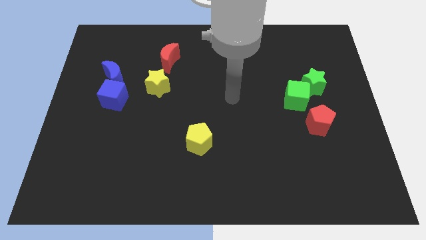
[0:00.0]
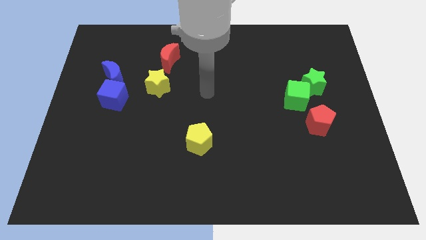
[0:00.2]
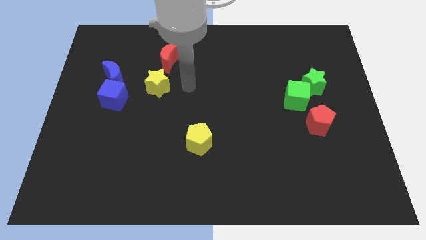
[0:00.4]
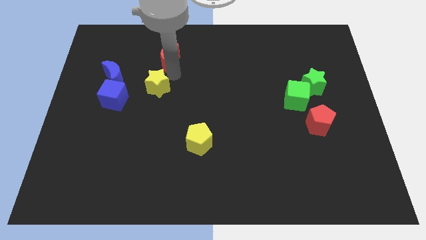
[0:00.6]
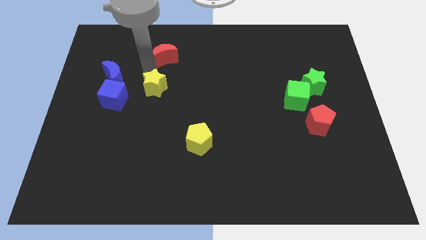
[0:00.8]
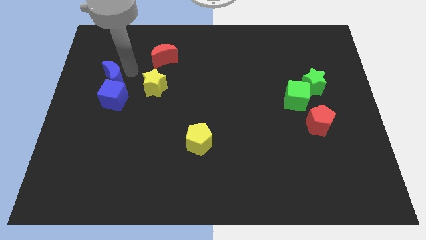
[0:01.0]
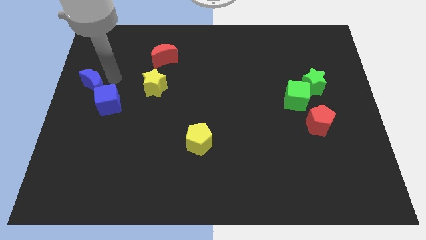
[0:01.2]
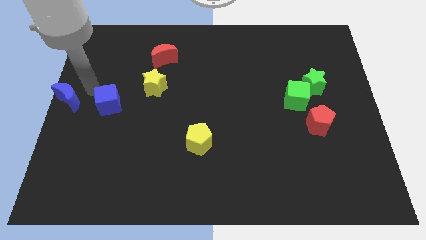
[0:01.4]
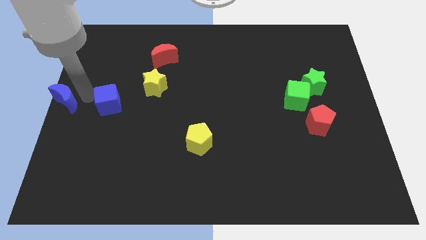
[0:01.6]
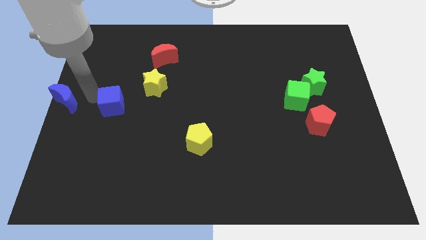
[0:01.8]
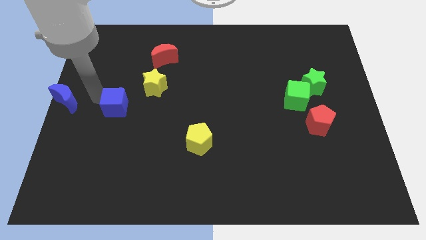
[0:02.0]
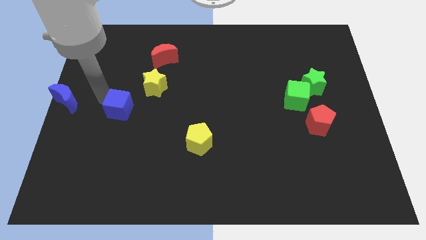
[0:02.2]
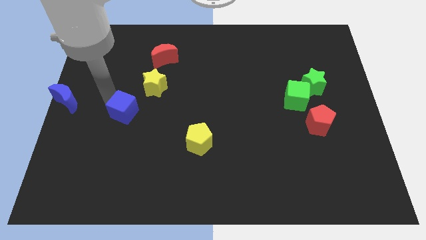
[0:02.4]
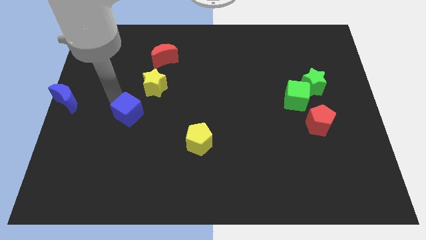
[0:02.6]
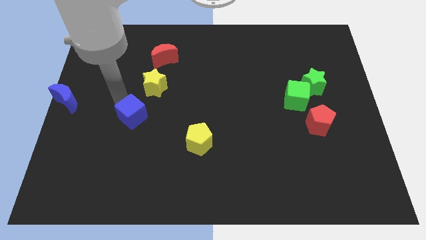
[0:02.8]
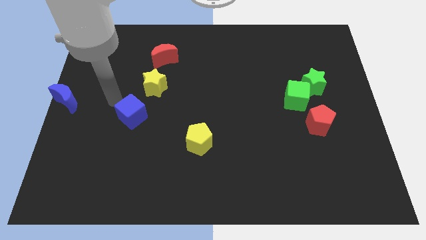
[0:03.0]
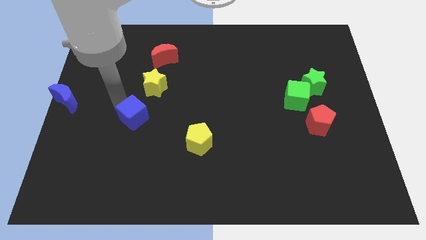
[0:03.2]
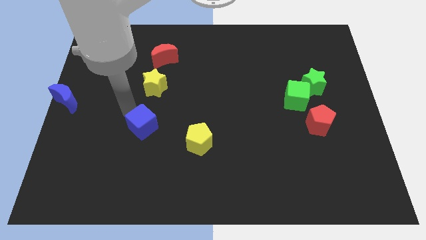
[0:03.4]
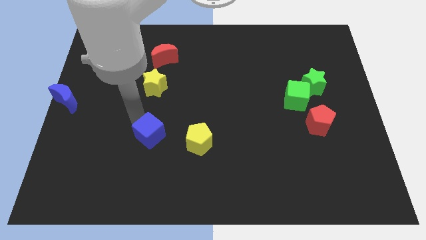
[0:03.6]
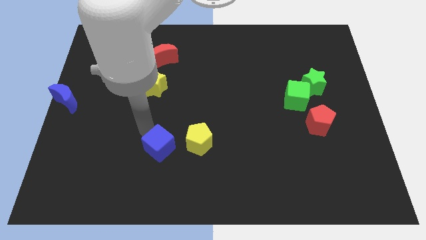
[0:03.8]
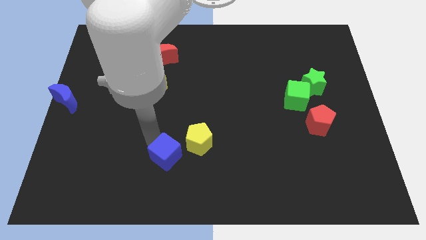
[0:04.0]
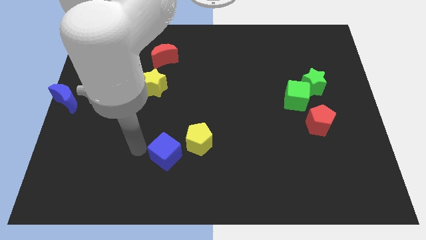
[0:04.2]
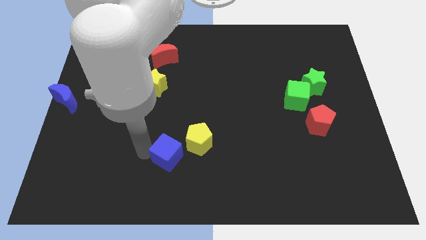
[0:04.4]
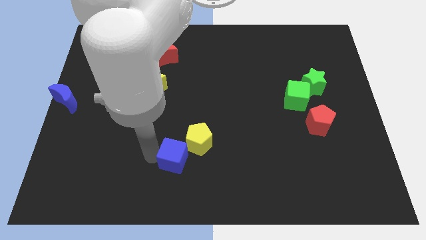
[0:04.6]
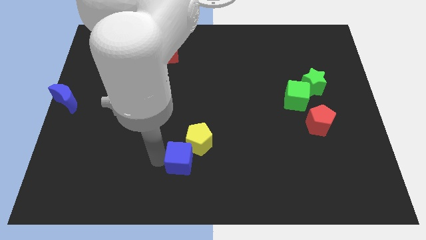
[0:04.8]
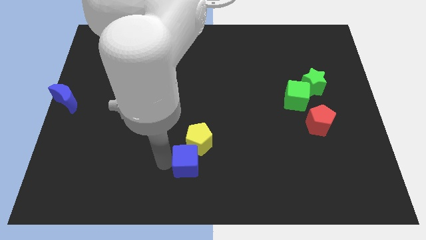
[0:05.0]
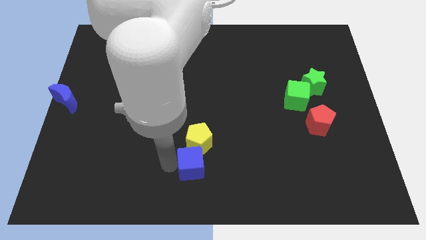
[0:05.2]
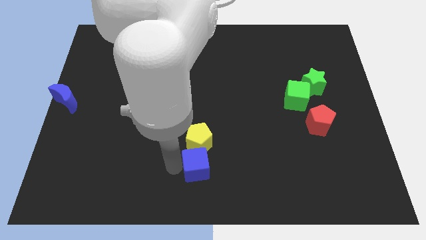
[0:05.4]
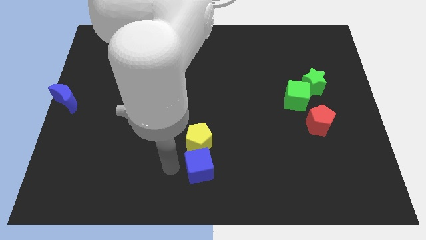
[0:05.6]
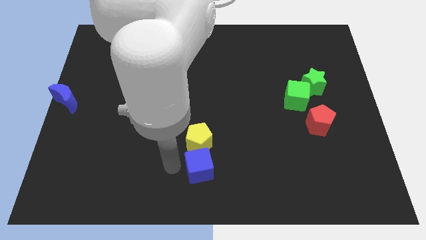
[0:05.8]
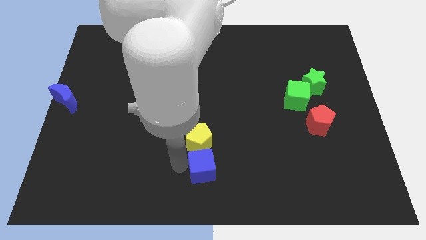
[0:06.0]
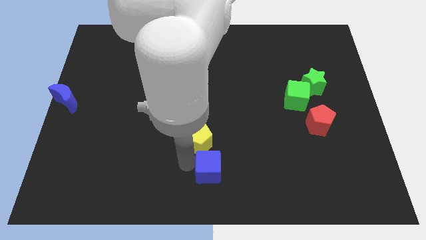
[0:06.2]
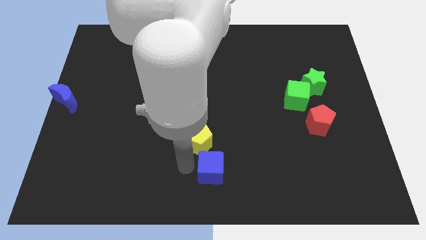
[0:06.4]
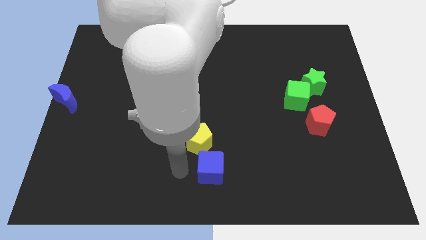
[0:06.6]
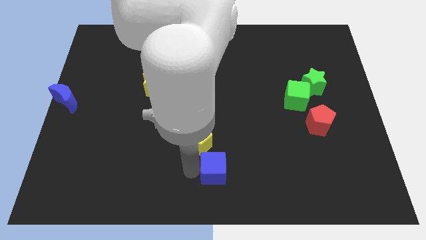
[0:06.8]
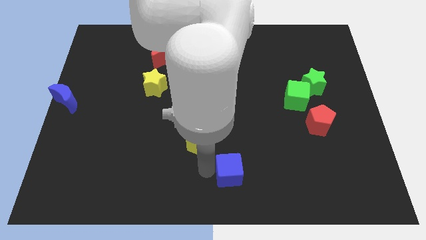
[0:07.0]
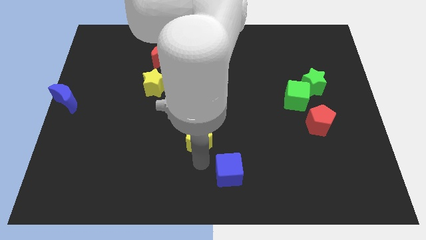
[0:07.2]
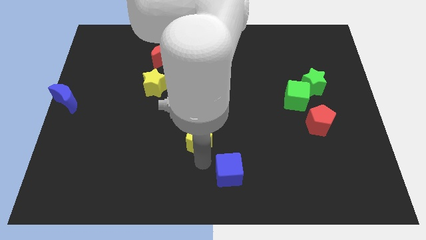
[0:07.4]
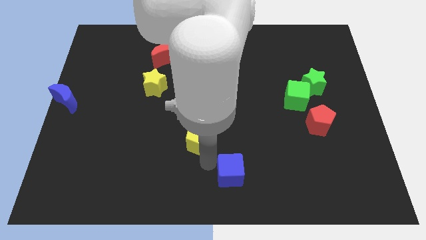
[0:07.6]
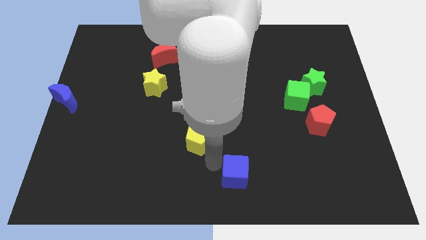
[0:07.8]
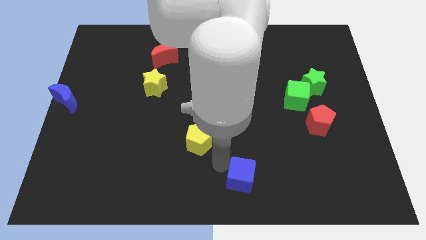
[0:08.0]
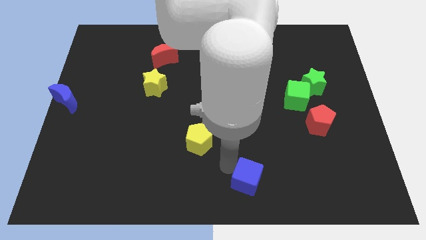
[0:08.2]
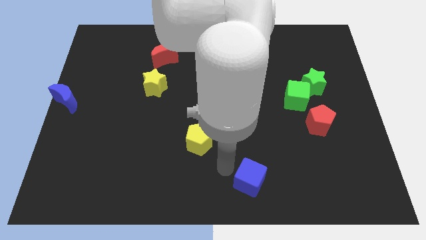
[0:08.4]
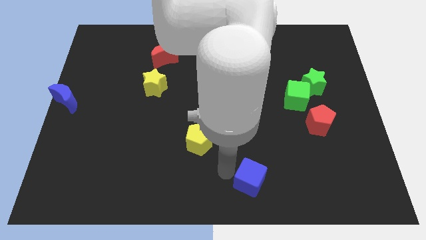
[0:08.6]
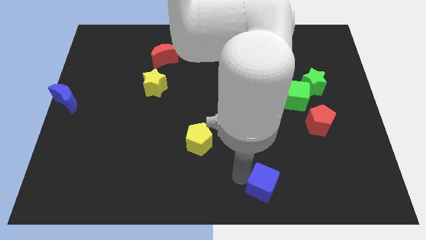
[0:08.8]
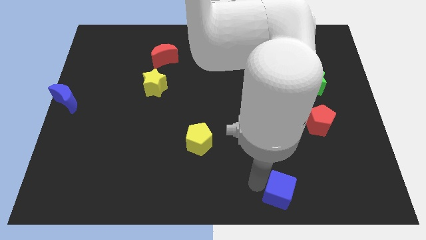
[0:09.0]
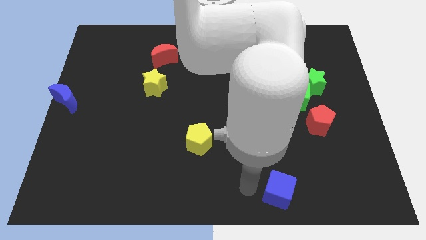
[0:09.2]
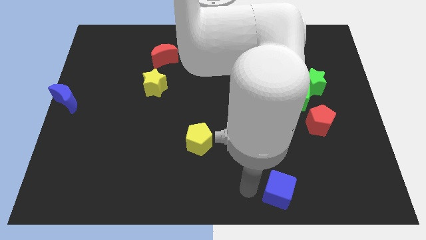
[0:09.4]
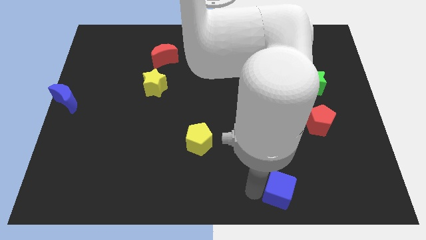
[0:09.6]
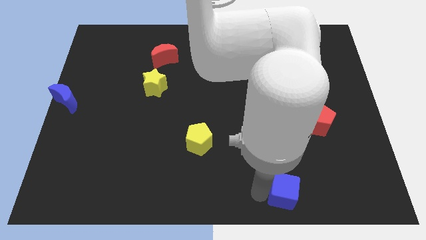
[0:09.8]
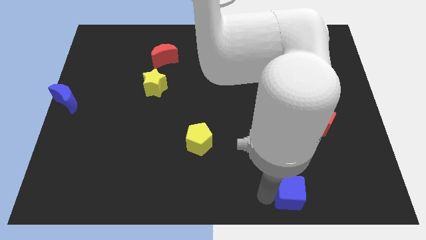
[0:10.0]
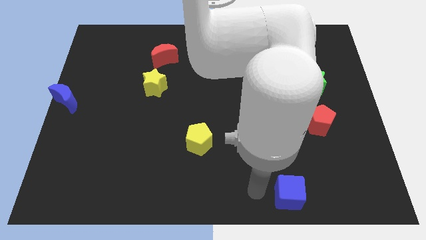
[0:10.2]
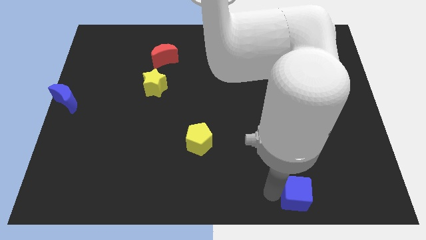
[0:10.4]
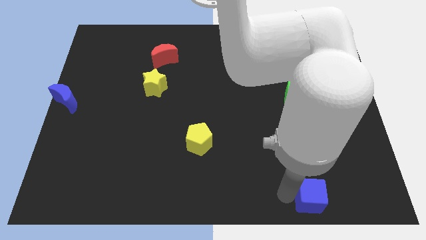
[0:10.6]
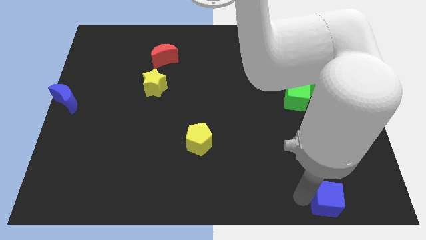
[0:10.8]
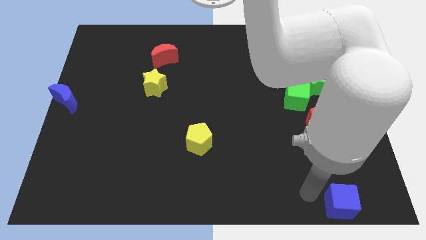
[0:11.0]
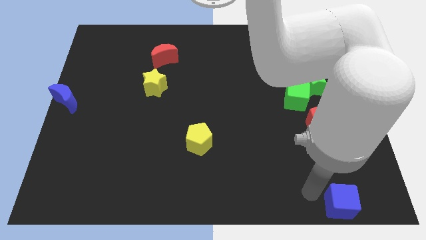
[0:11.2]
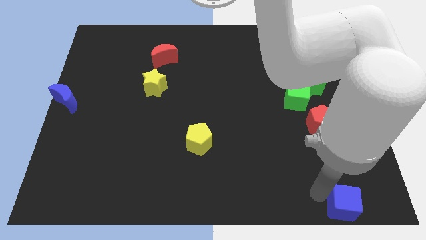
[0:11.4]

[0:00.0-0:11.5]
slide the blue cube to the bottom right

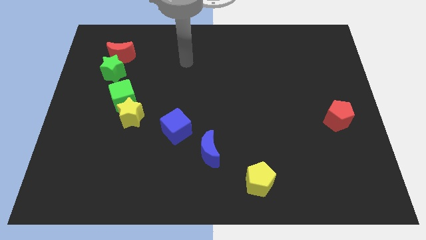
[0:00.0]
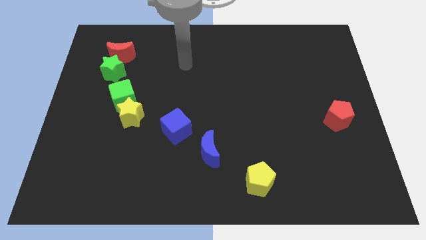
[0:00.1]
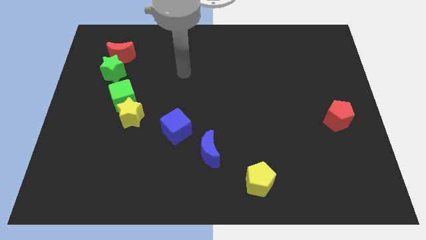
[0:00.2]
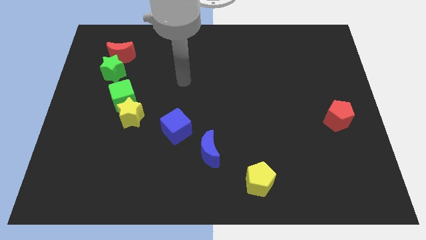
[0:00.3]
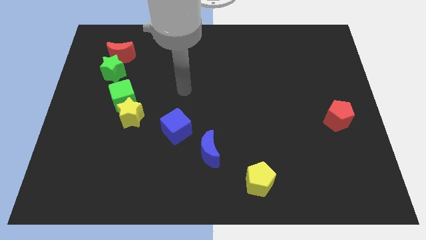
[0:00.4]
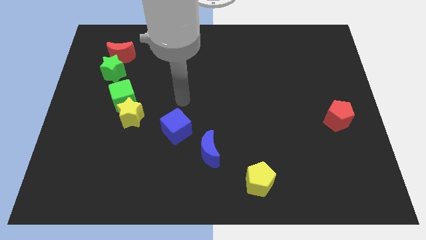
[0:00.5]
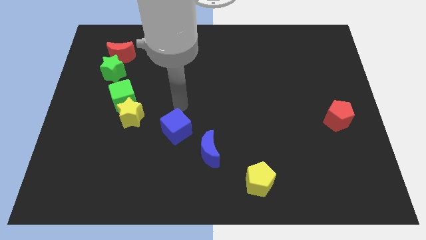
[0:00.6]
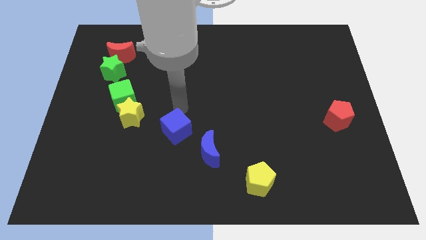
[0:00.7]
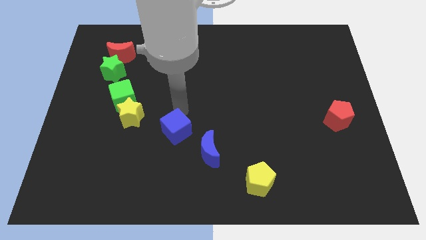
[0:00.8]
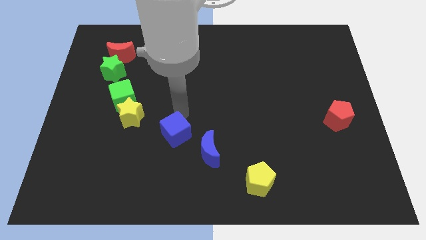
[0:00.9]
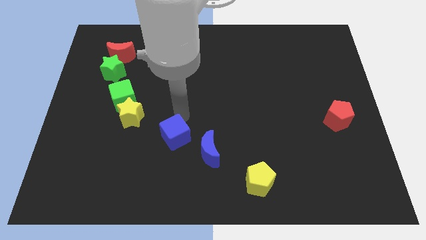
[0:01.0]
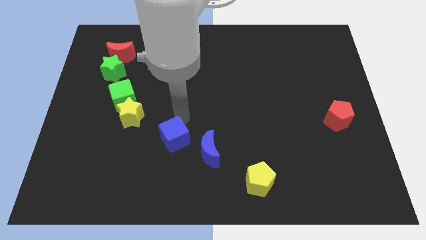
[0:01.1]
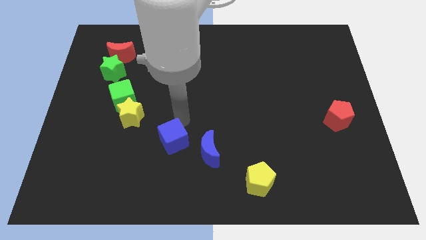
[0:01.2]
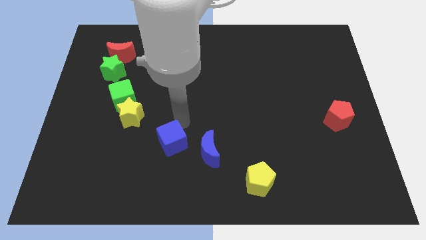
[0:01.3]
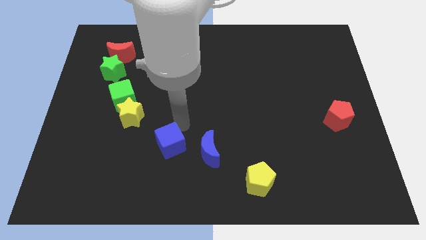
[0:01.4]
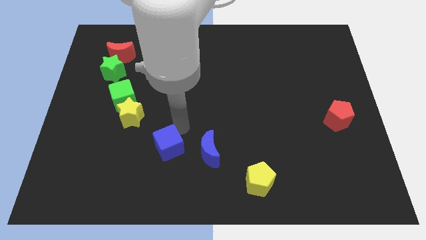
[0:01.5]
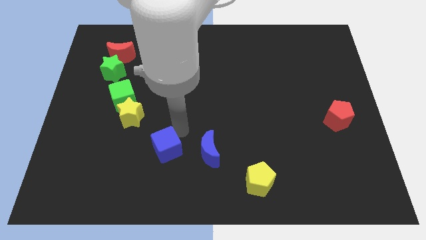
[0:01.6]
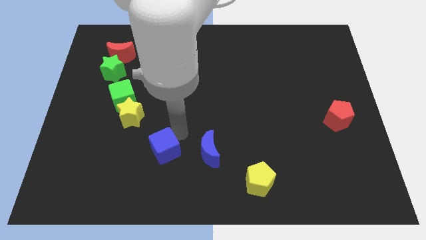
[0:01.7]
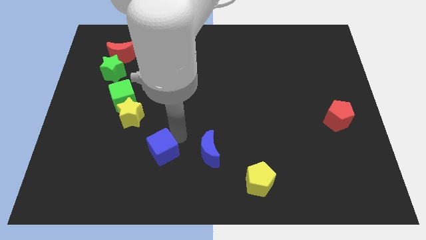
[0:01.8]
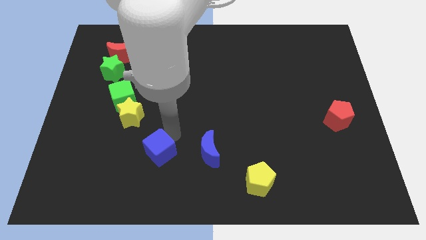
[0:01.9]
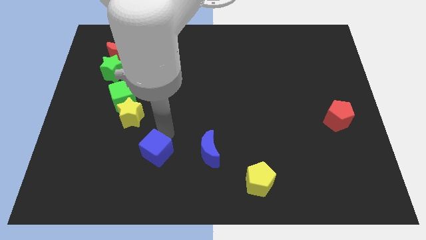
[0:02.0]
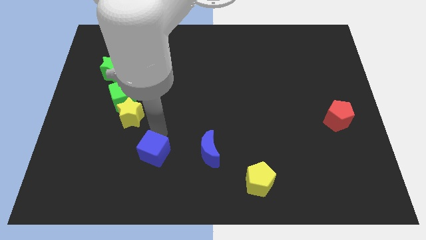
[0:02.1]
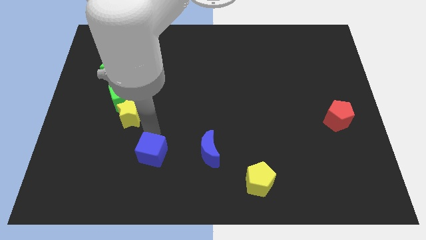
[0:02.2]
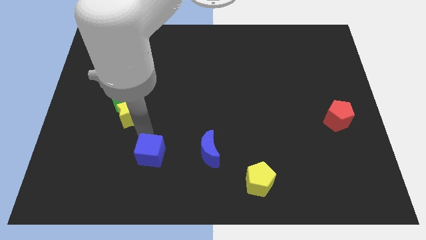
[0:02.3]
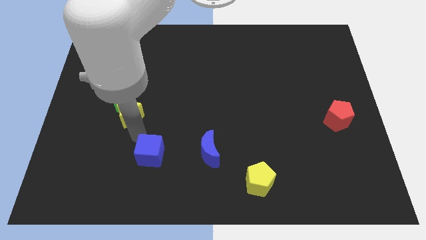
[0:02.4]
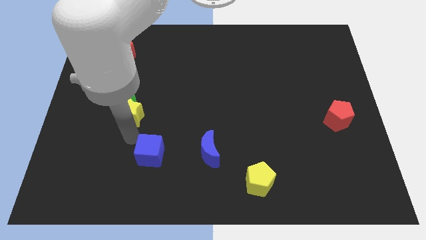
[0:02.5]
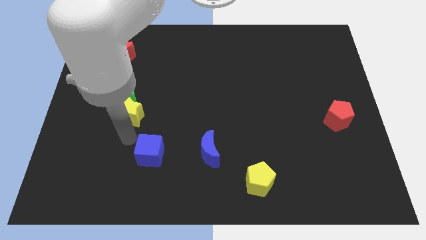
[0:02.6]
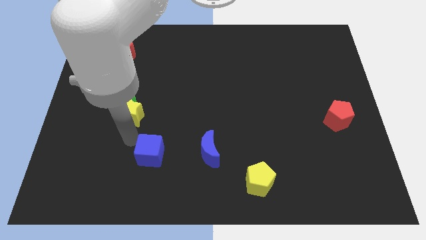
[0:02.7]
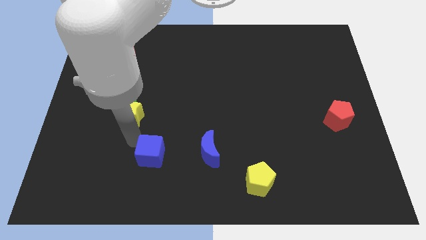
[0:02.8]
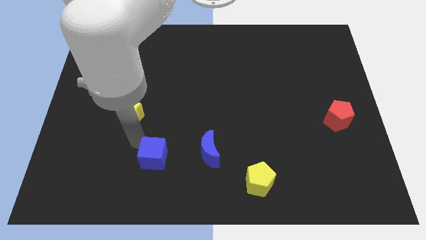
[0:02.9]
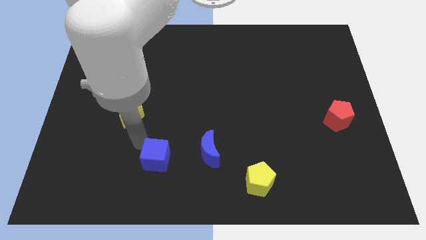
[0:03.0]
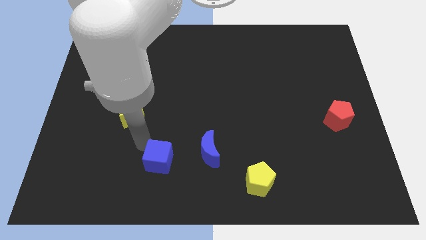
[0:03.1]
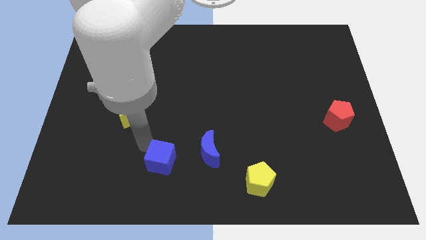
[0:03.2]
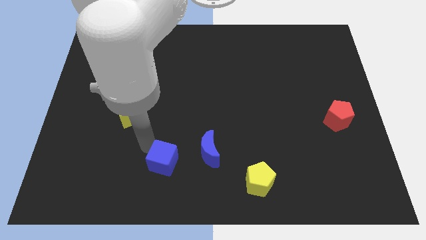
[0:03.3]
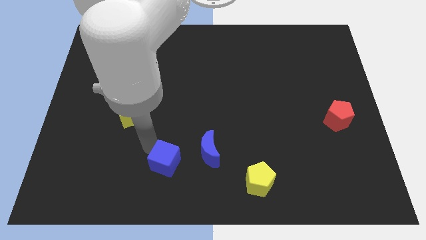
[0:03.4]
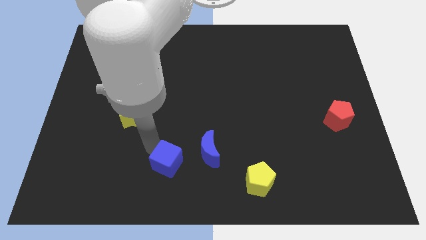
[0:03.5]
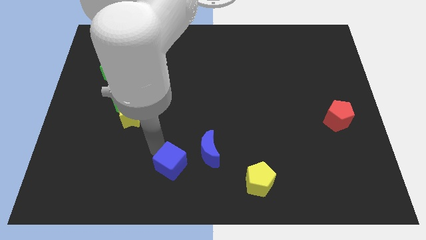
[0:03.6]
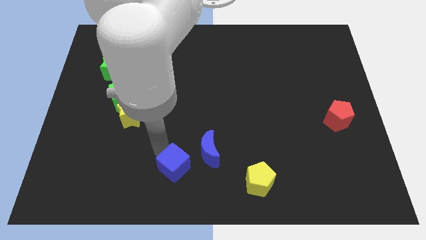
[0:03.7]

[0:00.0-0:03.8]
push the blue cube to the bottom side
